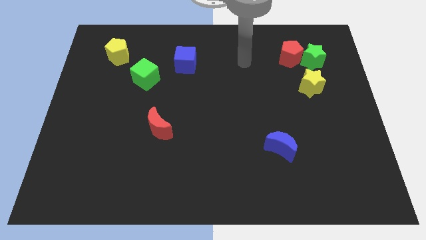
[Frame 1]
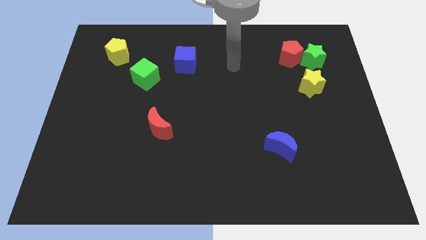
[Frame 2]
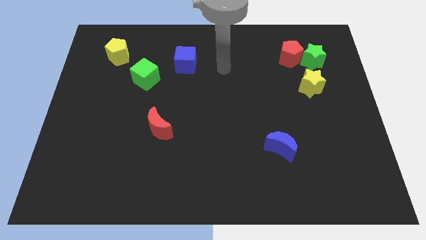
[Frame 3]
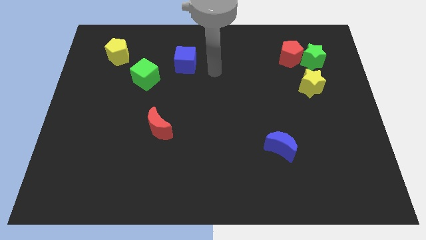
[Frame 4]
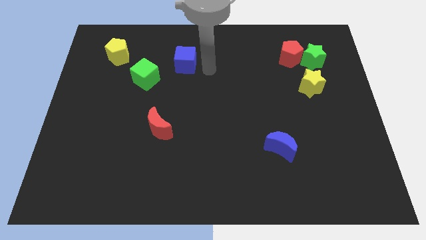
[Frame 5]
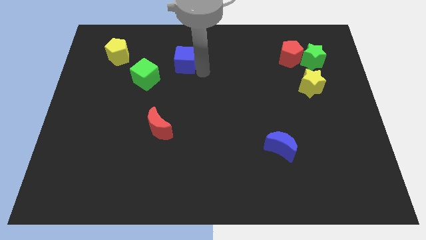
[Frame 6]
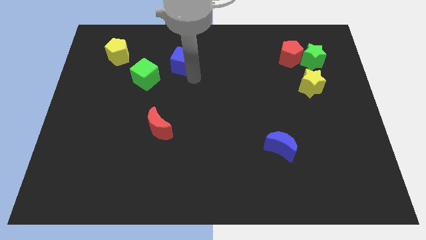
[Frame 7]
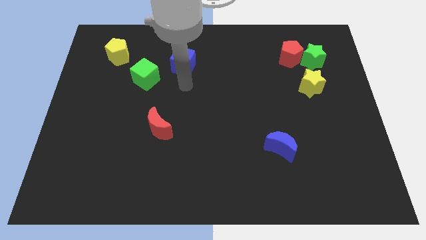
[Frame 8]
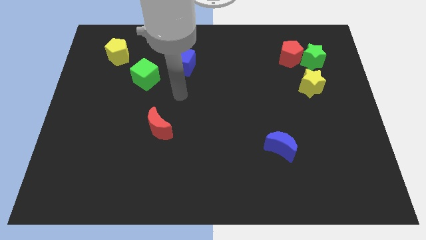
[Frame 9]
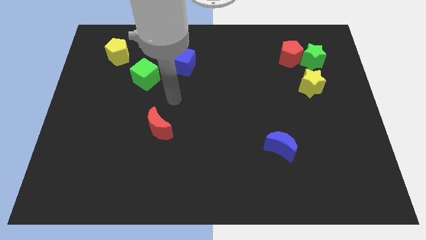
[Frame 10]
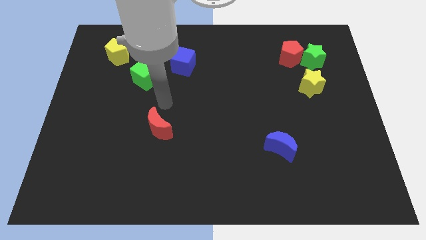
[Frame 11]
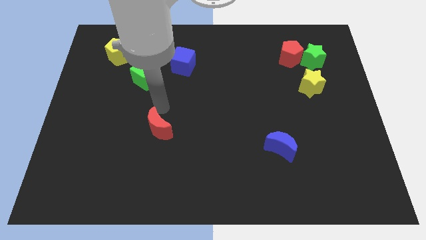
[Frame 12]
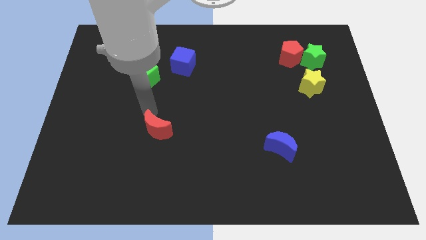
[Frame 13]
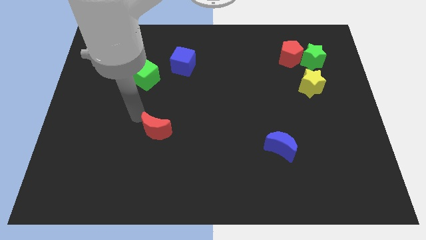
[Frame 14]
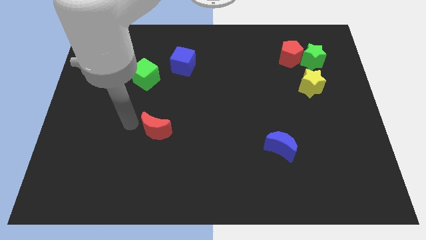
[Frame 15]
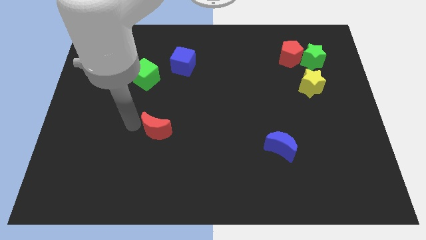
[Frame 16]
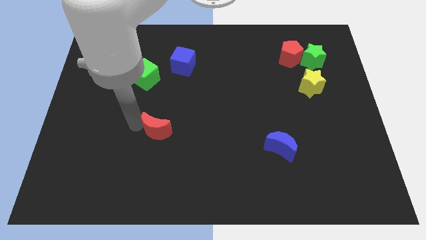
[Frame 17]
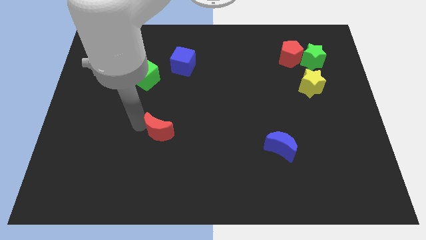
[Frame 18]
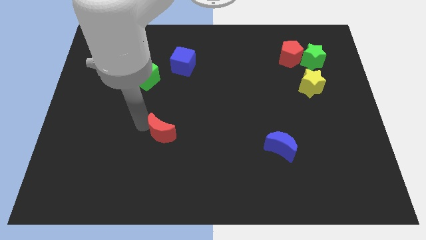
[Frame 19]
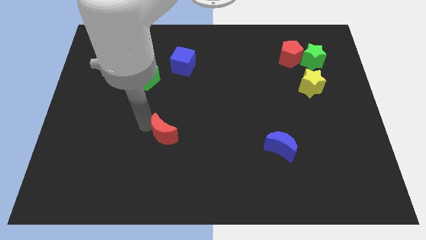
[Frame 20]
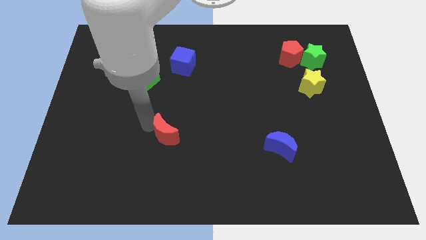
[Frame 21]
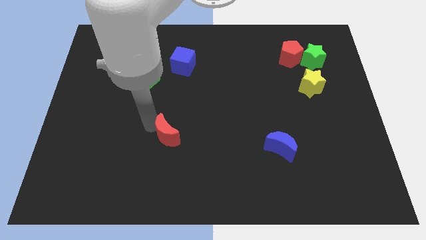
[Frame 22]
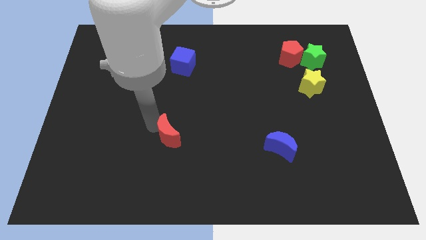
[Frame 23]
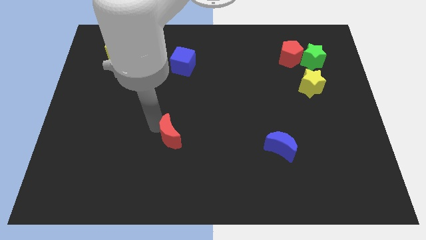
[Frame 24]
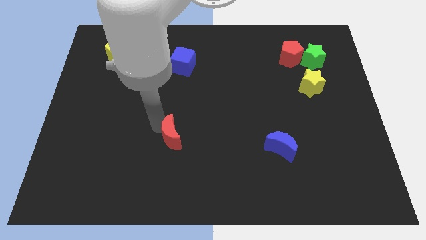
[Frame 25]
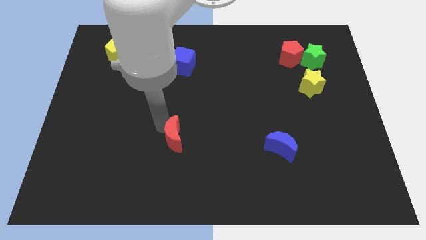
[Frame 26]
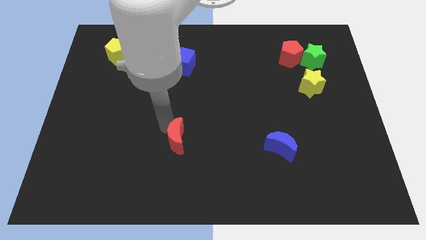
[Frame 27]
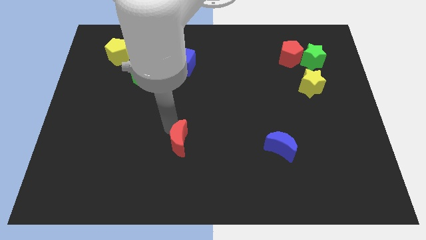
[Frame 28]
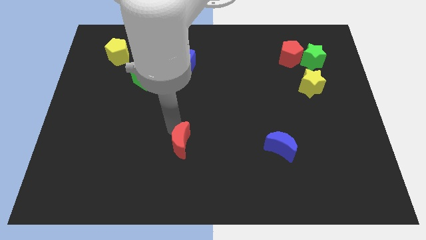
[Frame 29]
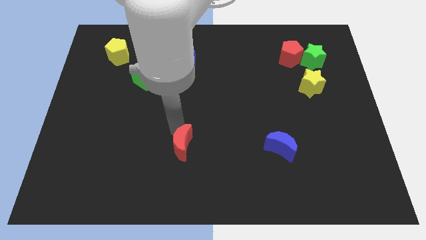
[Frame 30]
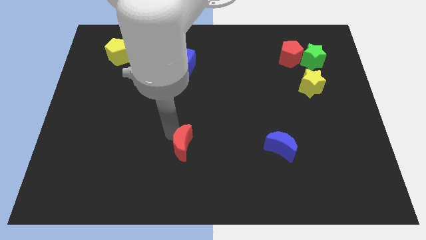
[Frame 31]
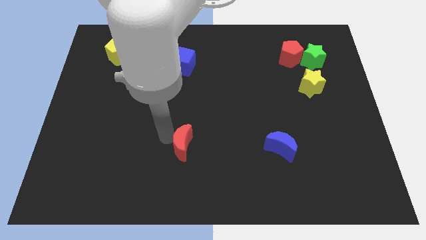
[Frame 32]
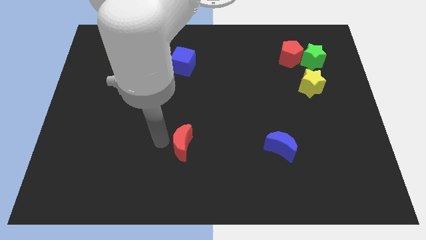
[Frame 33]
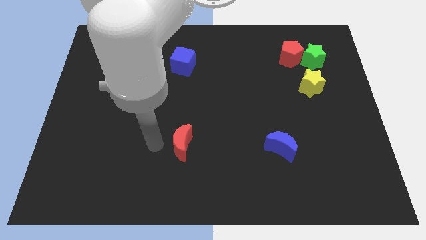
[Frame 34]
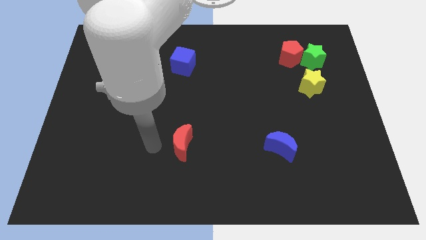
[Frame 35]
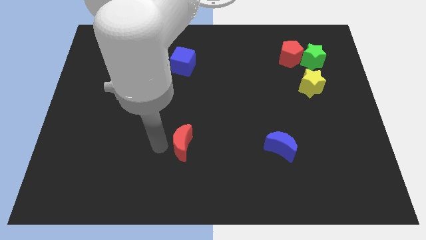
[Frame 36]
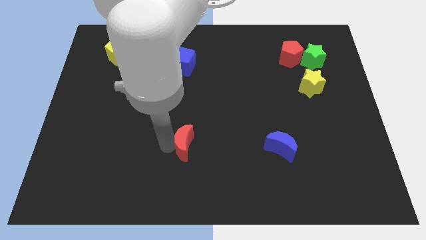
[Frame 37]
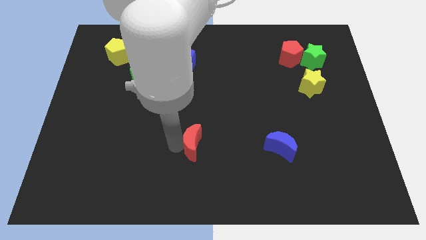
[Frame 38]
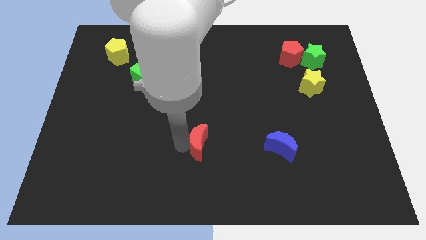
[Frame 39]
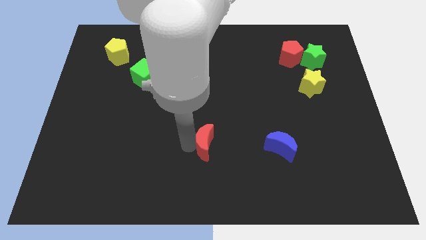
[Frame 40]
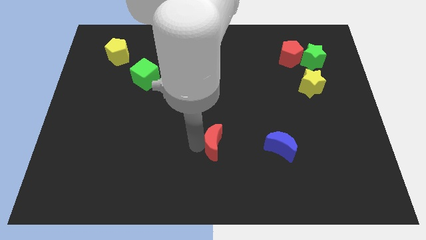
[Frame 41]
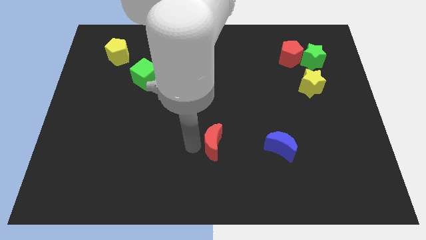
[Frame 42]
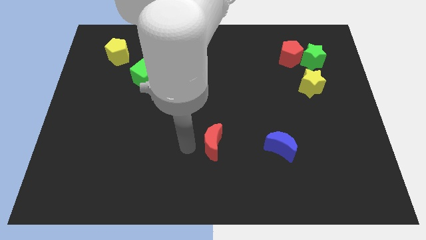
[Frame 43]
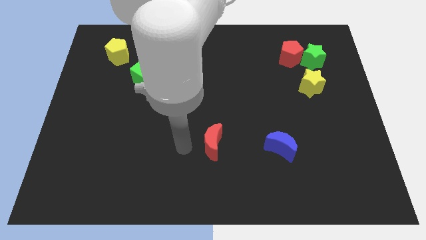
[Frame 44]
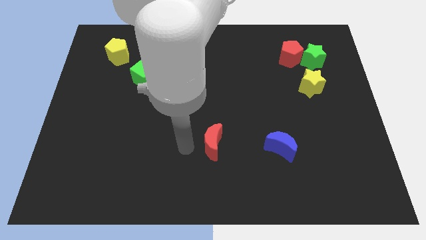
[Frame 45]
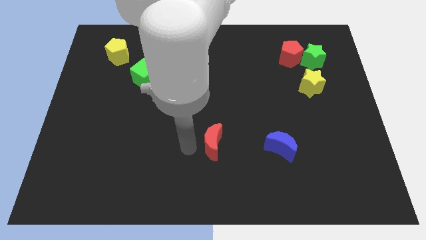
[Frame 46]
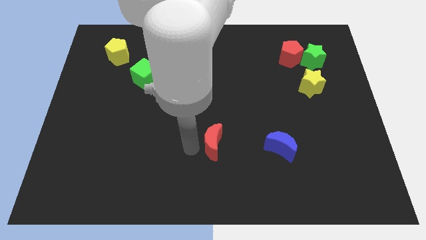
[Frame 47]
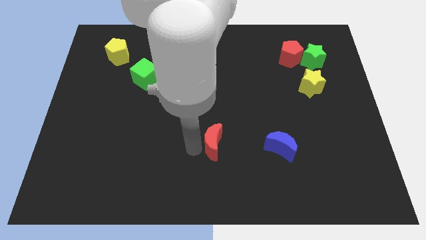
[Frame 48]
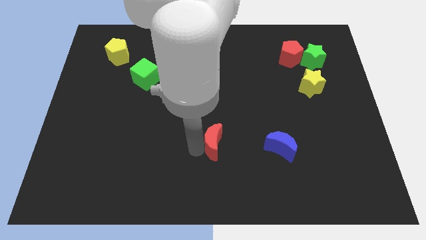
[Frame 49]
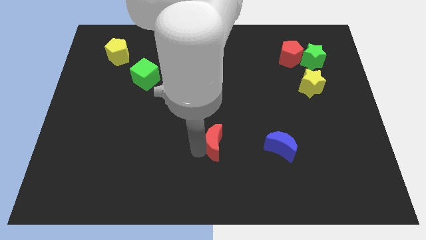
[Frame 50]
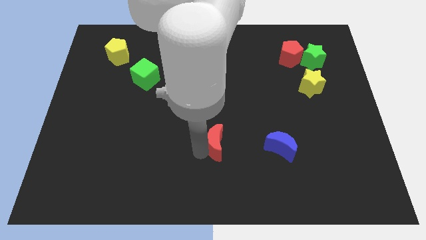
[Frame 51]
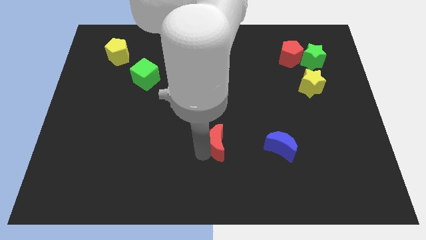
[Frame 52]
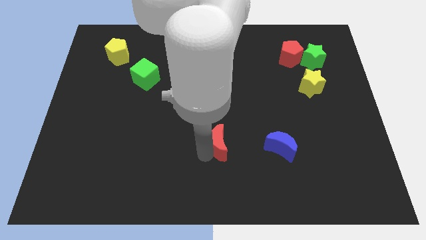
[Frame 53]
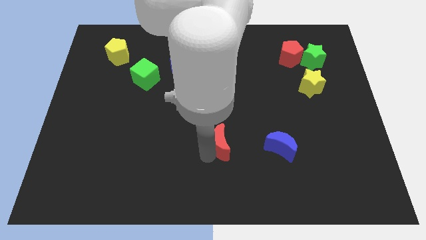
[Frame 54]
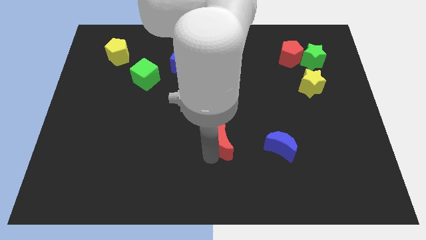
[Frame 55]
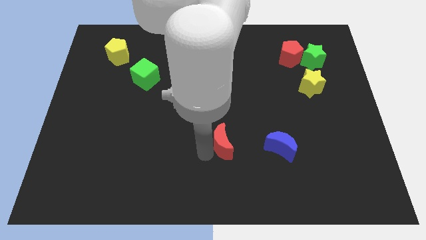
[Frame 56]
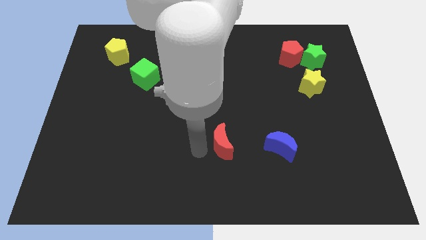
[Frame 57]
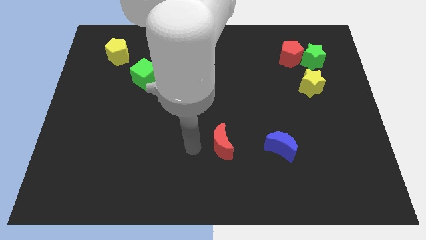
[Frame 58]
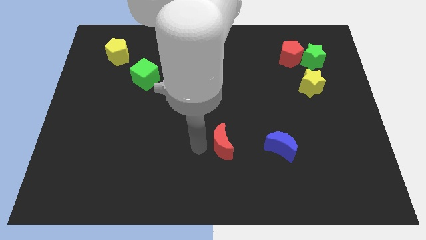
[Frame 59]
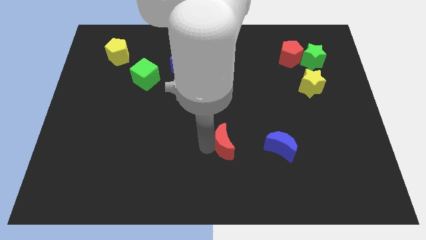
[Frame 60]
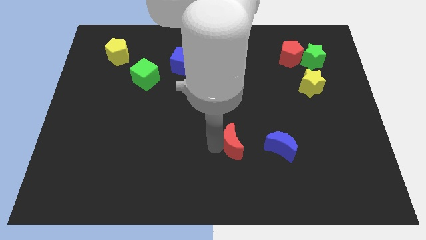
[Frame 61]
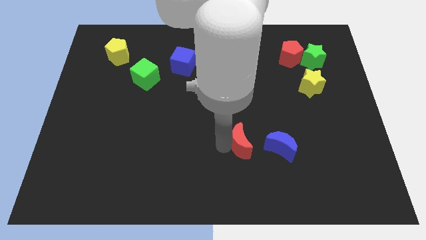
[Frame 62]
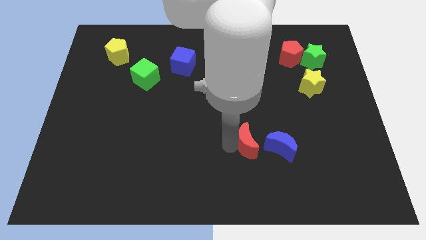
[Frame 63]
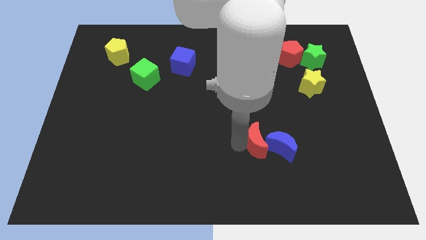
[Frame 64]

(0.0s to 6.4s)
put the red moon next to the blue moon

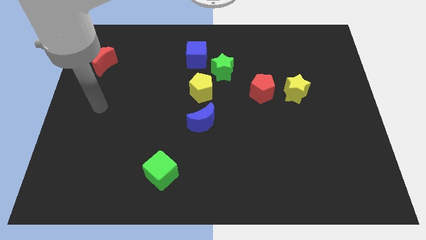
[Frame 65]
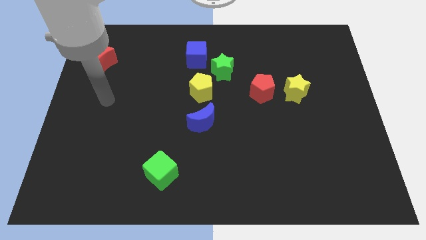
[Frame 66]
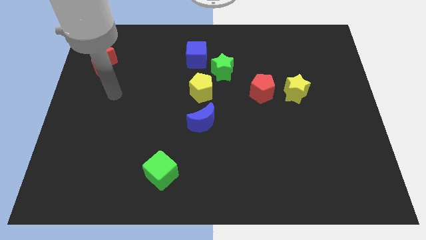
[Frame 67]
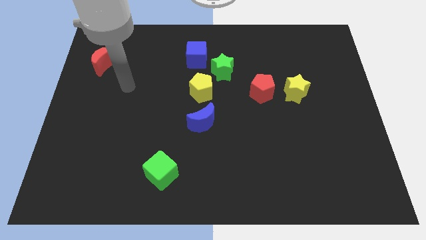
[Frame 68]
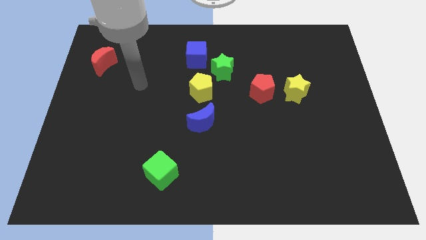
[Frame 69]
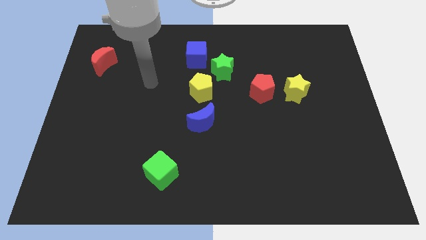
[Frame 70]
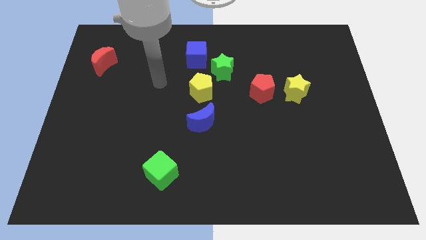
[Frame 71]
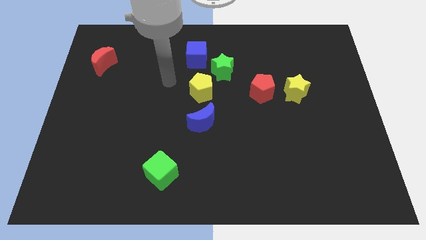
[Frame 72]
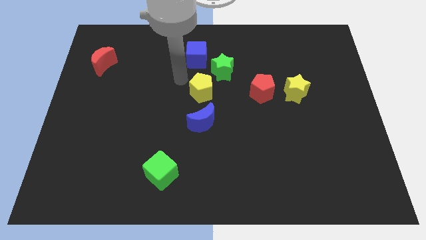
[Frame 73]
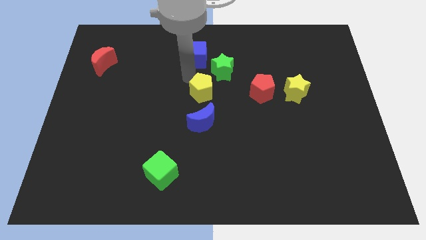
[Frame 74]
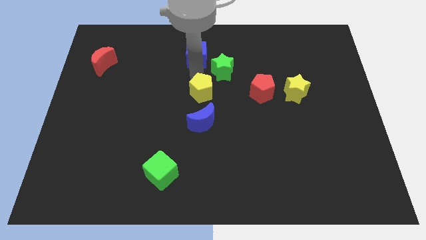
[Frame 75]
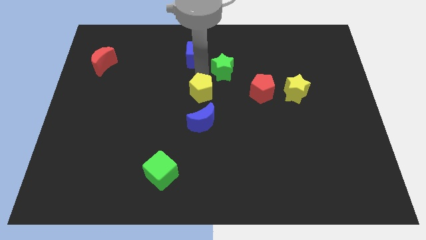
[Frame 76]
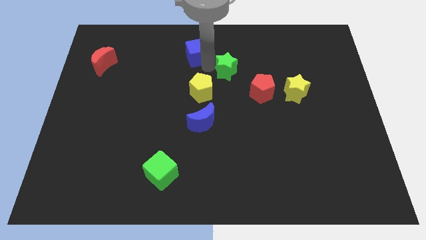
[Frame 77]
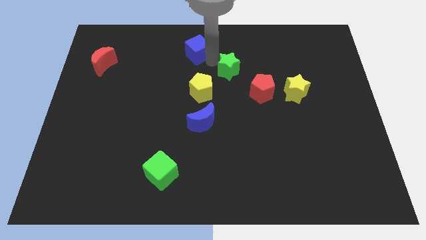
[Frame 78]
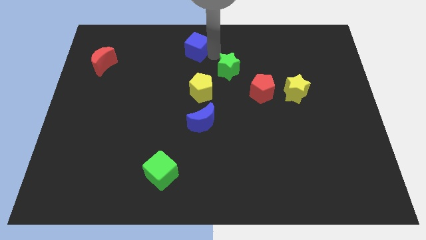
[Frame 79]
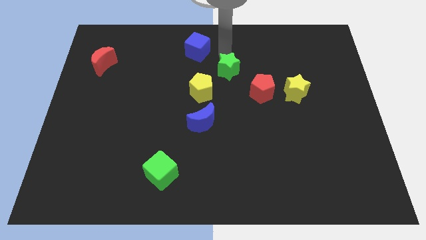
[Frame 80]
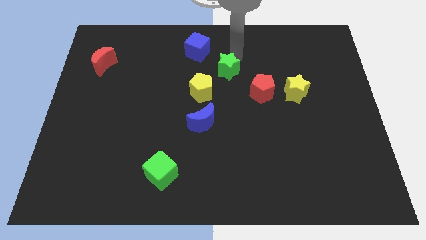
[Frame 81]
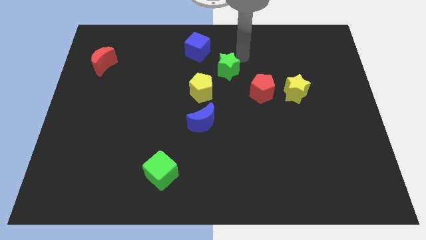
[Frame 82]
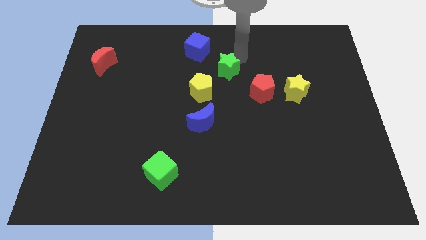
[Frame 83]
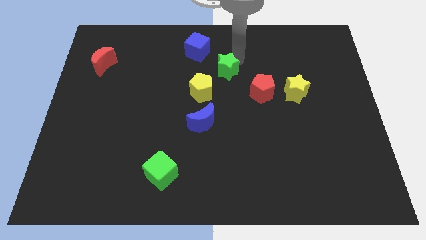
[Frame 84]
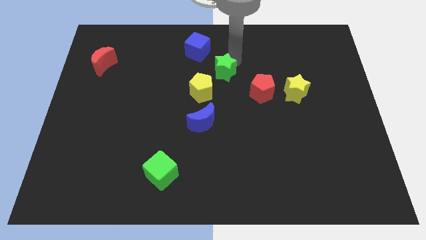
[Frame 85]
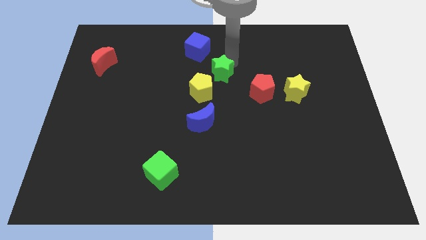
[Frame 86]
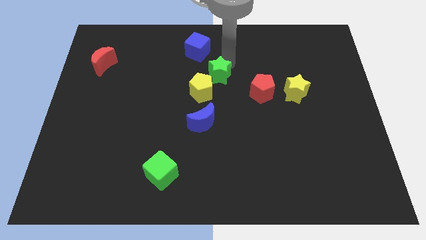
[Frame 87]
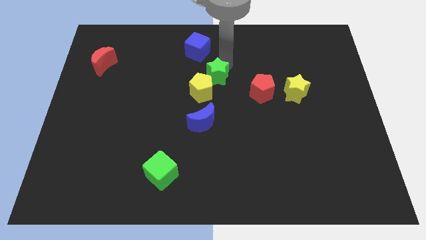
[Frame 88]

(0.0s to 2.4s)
slide the green star towards the yellow pentagon
